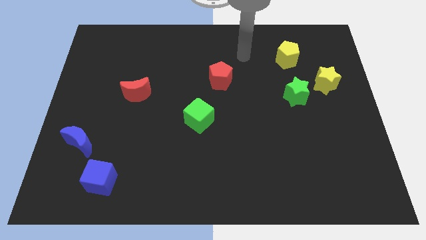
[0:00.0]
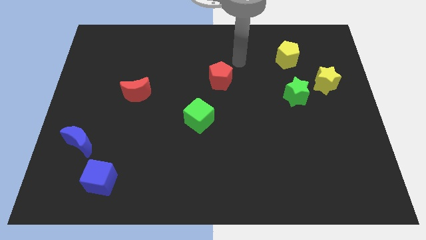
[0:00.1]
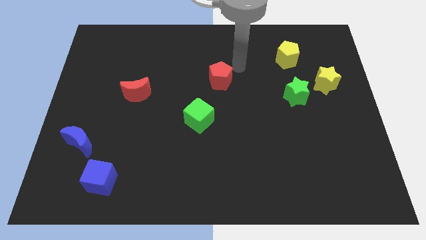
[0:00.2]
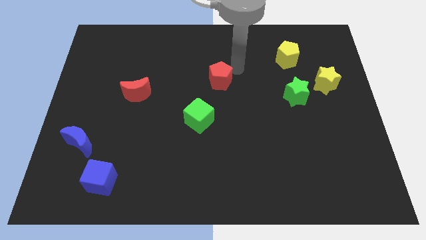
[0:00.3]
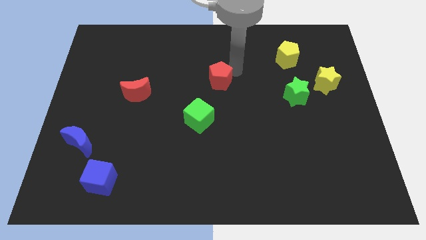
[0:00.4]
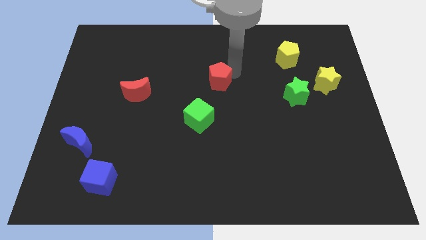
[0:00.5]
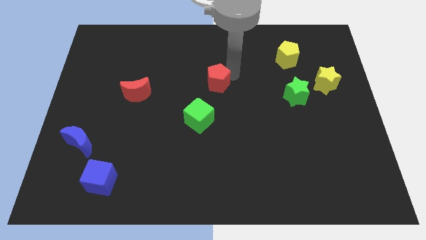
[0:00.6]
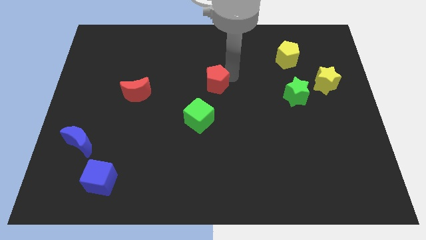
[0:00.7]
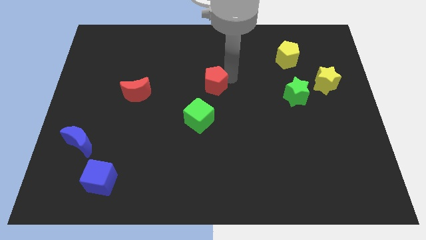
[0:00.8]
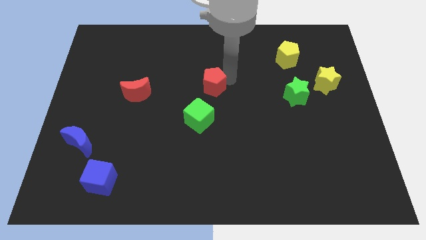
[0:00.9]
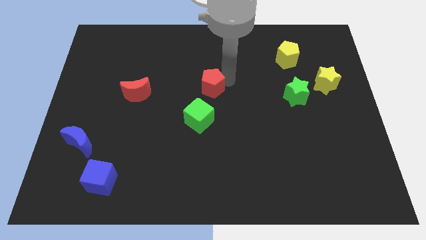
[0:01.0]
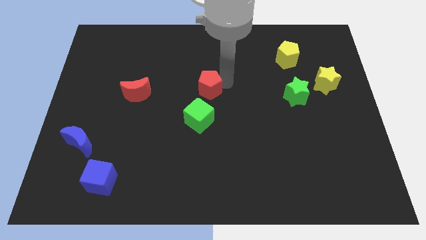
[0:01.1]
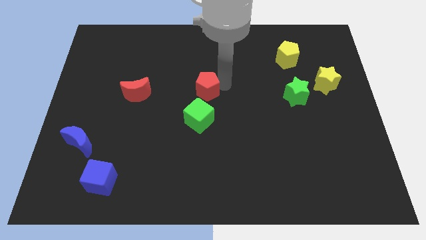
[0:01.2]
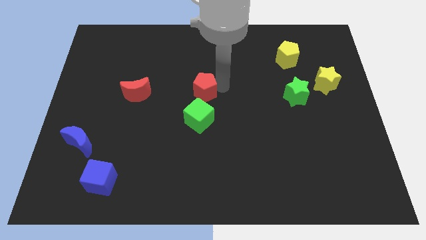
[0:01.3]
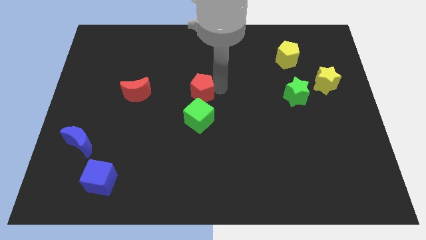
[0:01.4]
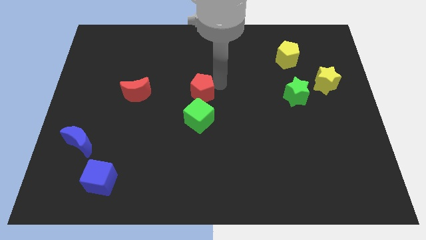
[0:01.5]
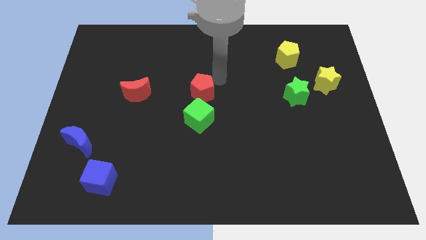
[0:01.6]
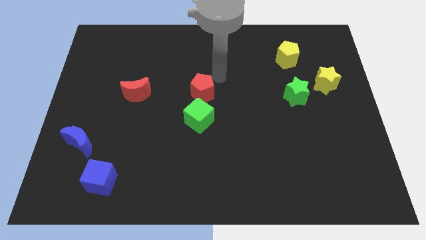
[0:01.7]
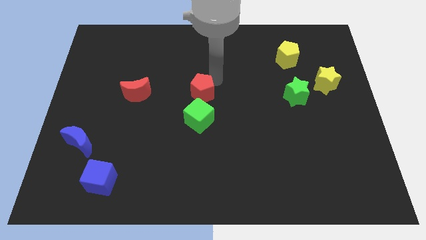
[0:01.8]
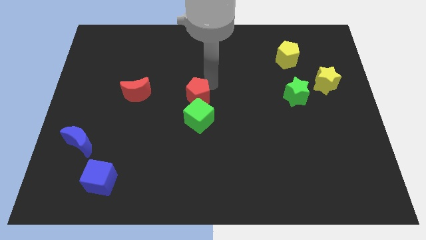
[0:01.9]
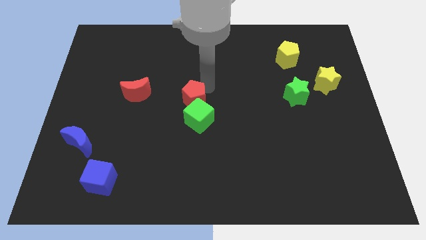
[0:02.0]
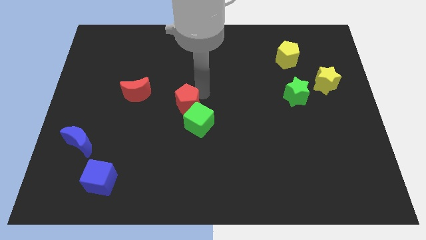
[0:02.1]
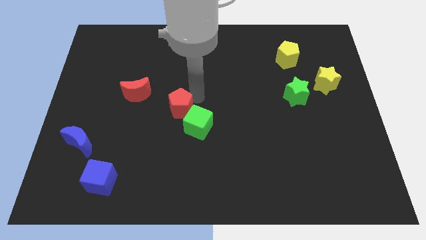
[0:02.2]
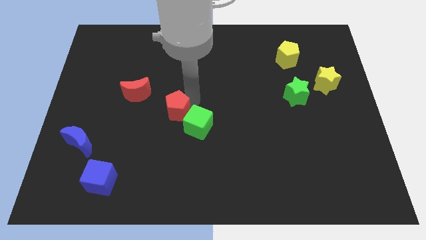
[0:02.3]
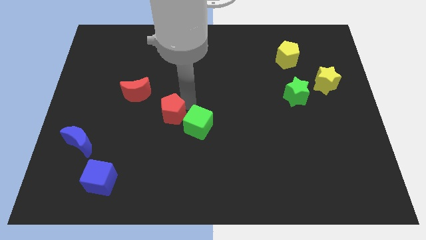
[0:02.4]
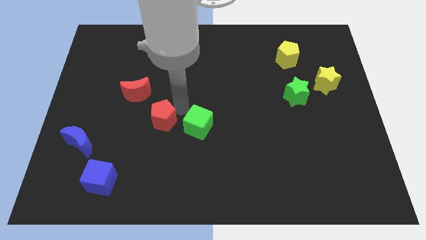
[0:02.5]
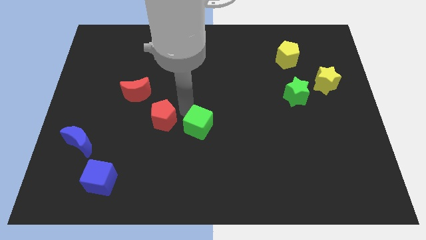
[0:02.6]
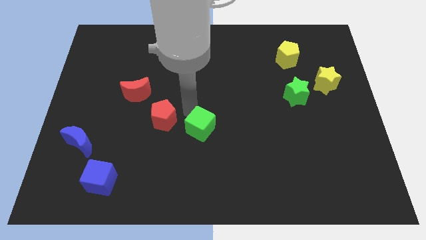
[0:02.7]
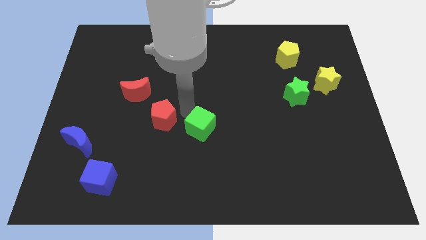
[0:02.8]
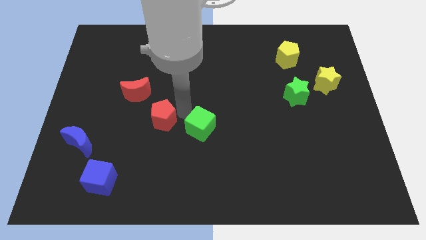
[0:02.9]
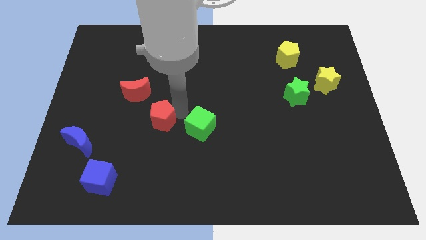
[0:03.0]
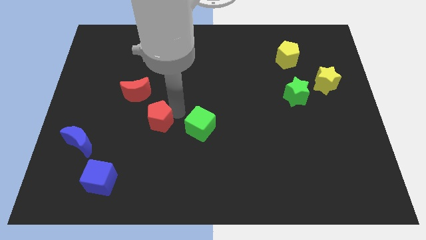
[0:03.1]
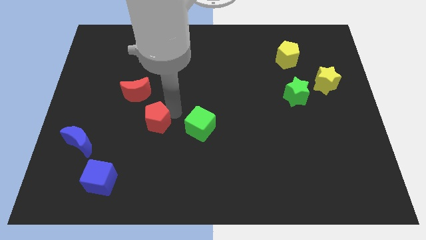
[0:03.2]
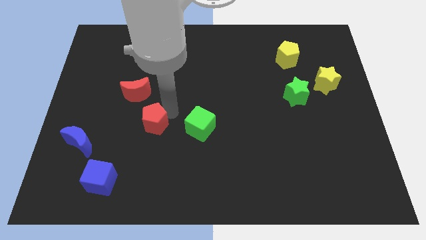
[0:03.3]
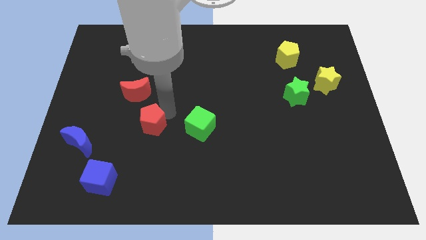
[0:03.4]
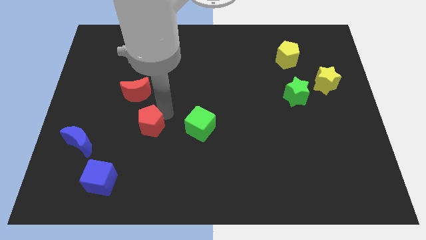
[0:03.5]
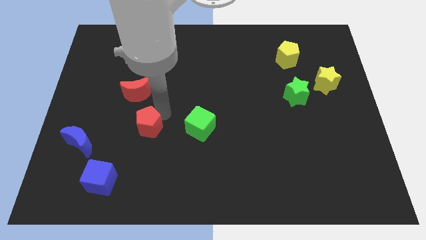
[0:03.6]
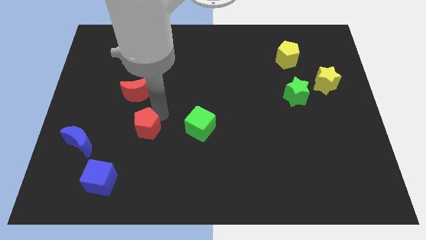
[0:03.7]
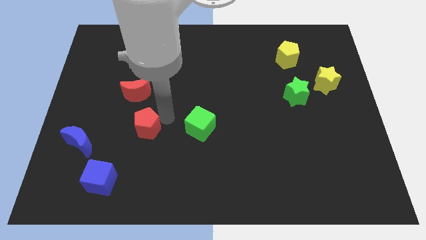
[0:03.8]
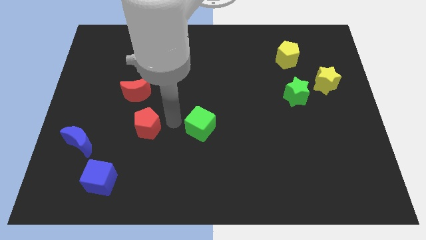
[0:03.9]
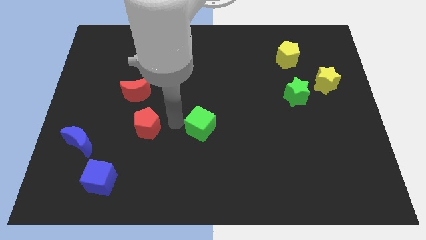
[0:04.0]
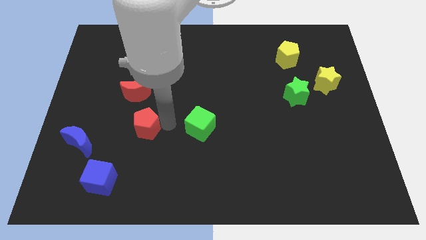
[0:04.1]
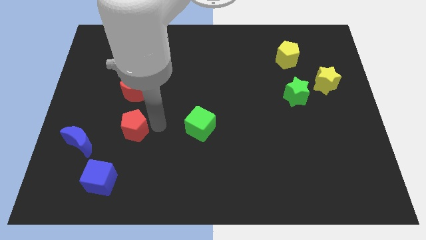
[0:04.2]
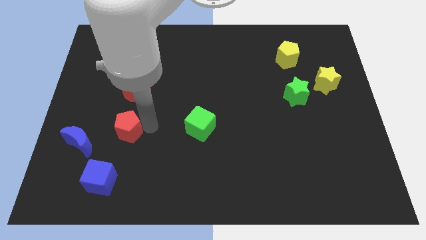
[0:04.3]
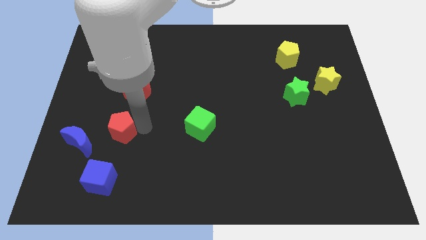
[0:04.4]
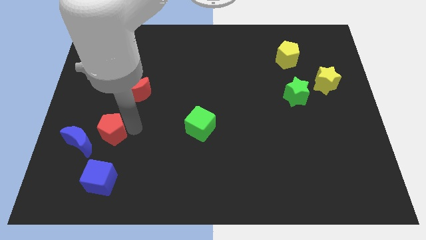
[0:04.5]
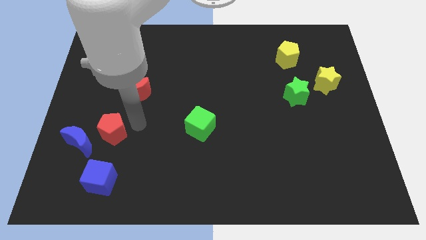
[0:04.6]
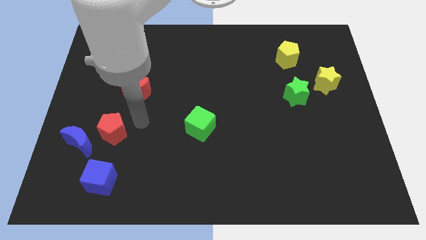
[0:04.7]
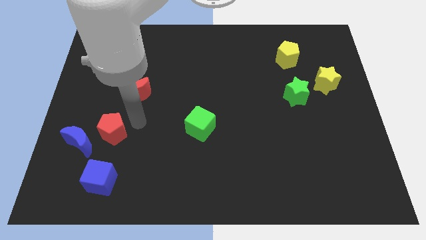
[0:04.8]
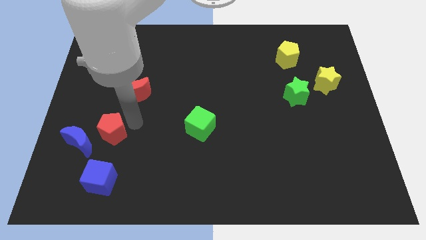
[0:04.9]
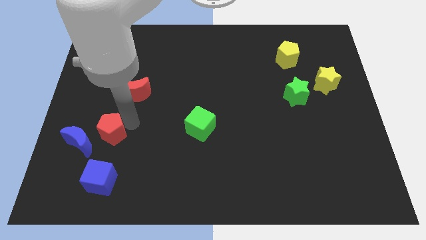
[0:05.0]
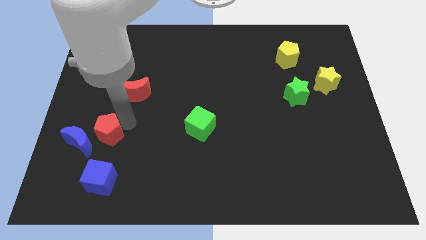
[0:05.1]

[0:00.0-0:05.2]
move the red pentagon next to the blue moon

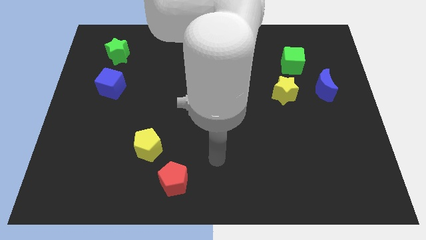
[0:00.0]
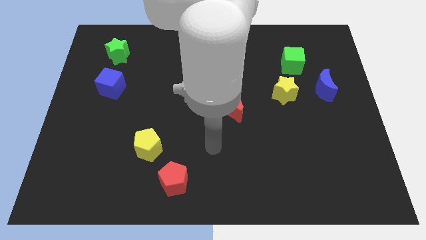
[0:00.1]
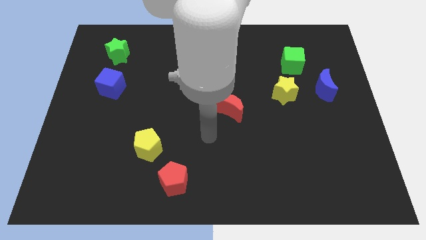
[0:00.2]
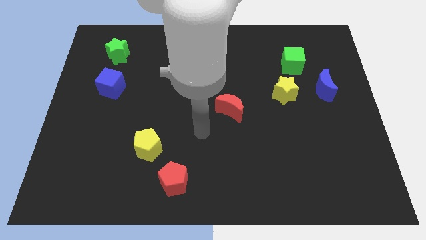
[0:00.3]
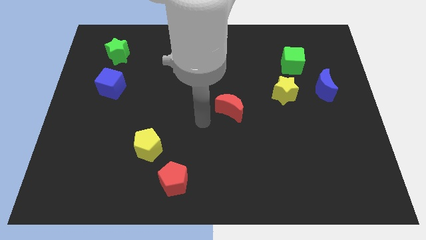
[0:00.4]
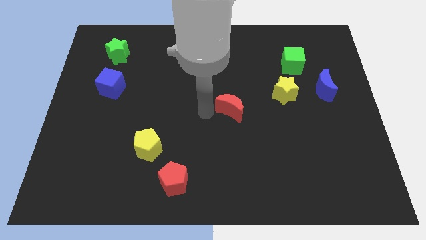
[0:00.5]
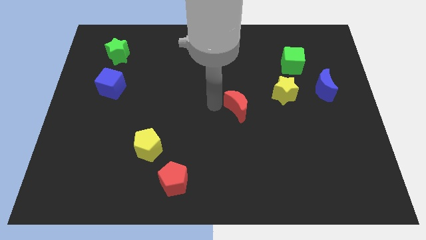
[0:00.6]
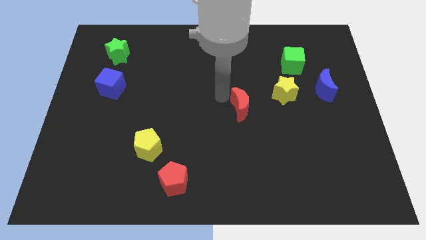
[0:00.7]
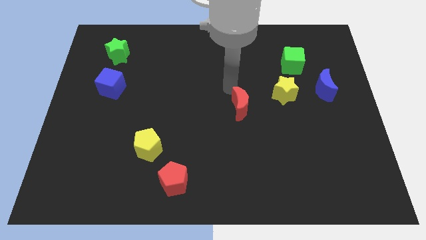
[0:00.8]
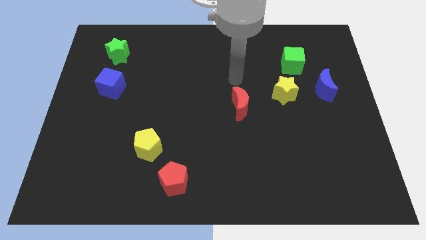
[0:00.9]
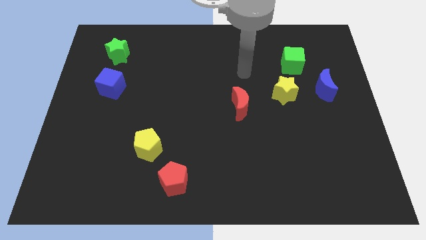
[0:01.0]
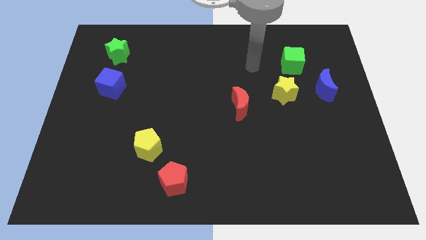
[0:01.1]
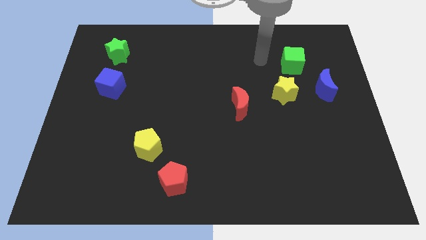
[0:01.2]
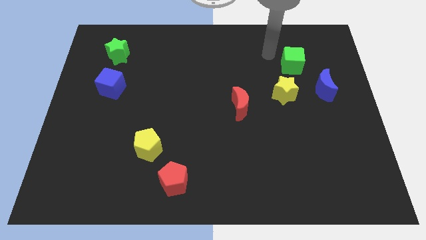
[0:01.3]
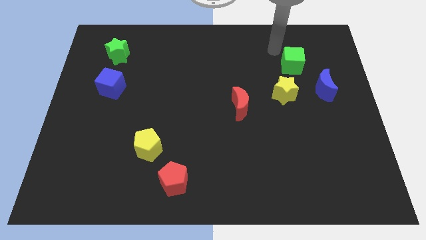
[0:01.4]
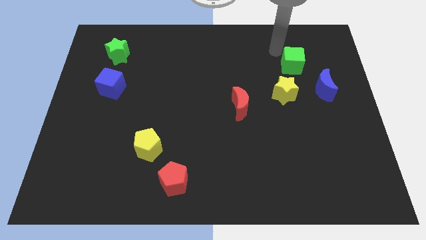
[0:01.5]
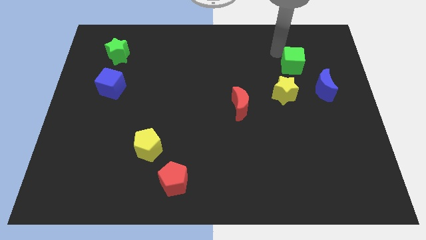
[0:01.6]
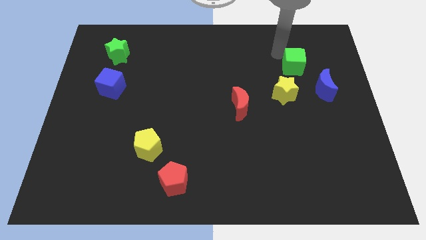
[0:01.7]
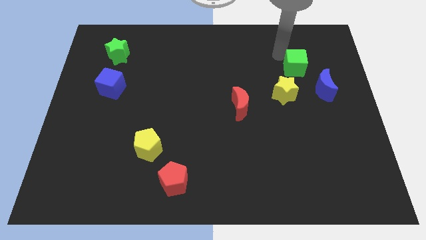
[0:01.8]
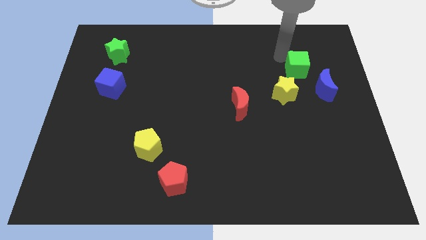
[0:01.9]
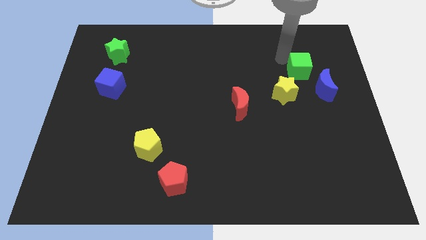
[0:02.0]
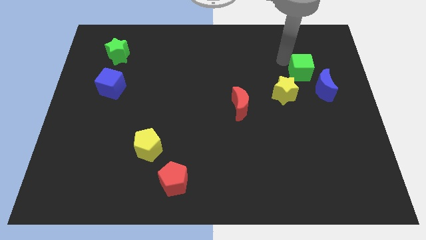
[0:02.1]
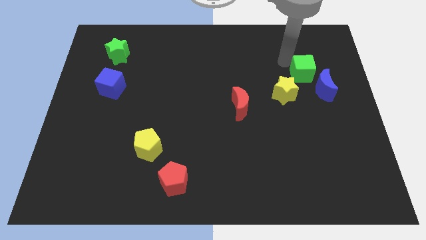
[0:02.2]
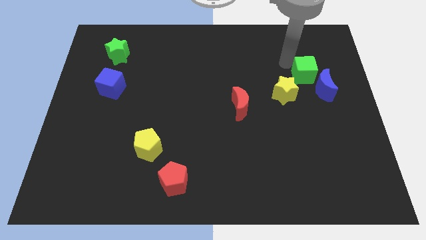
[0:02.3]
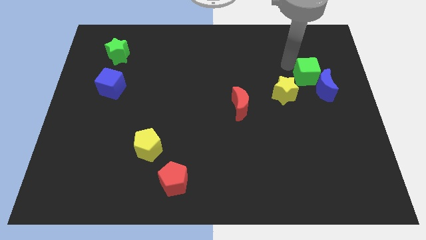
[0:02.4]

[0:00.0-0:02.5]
slide the green cube next to the blue moon
